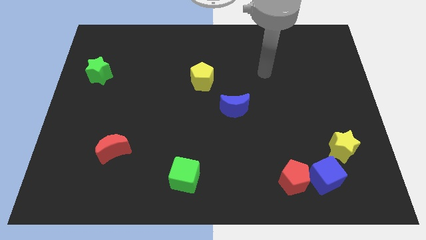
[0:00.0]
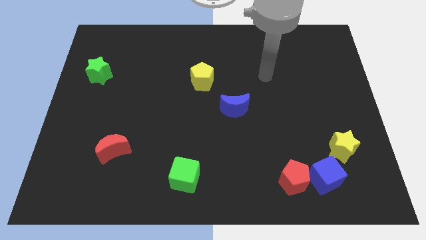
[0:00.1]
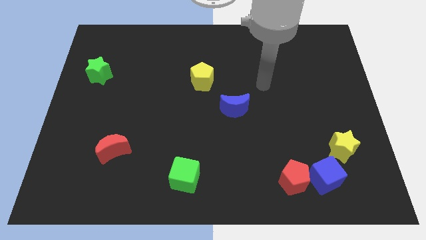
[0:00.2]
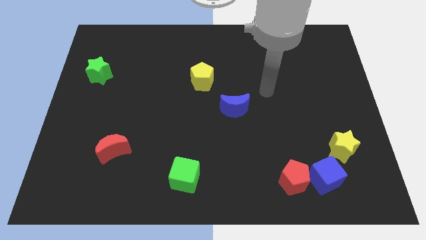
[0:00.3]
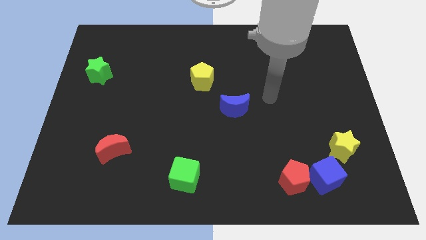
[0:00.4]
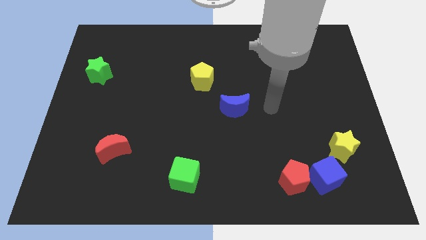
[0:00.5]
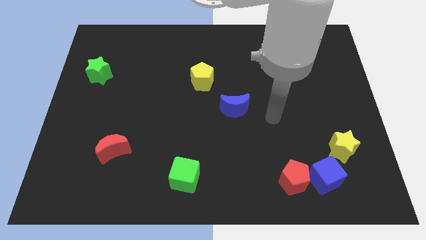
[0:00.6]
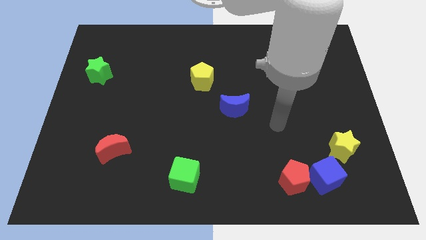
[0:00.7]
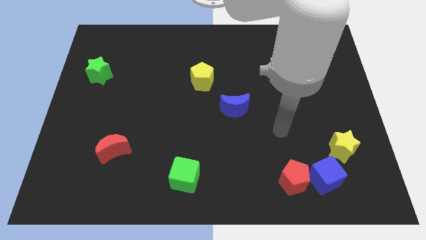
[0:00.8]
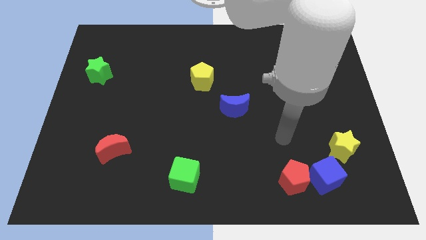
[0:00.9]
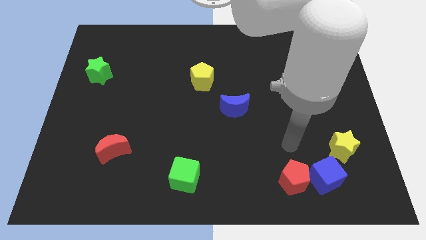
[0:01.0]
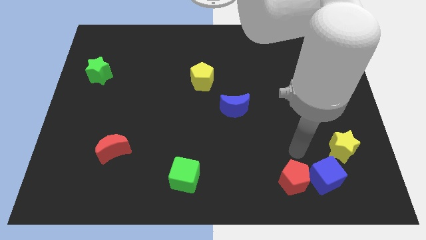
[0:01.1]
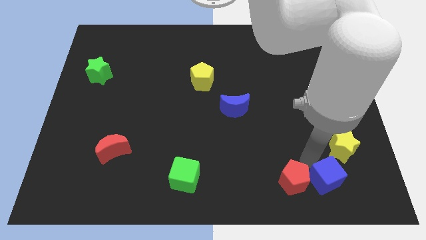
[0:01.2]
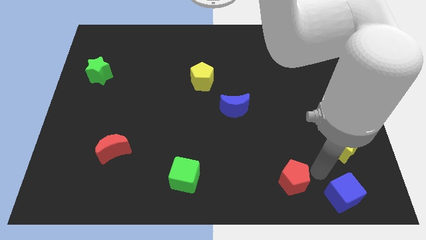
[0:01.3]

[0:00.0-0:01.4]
pull the red pentagon apart from the blue cube

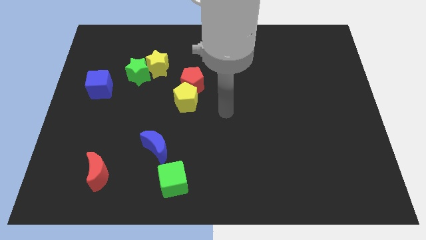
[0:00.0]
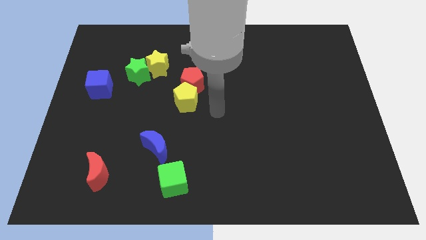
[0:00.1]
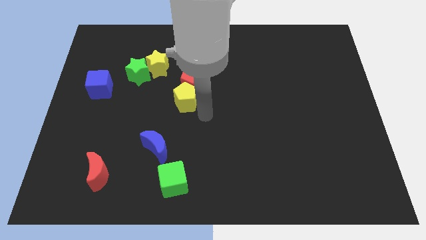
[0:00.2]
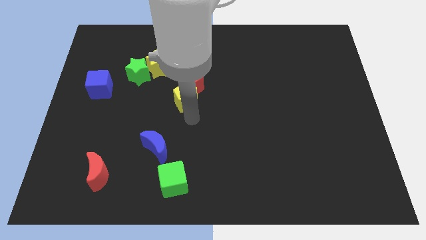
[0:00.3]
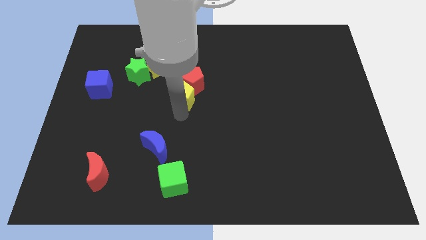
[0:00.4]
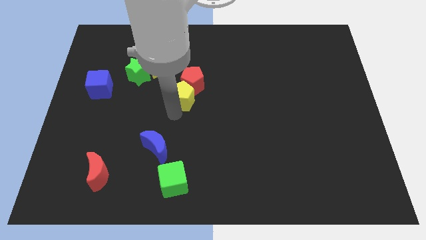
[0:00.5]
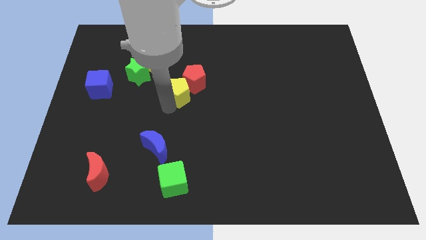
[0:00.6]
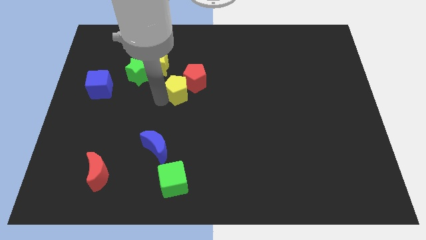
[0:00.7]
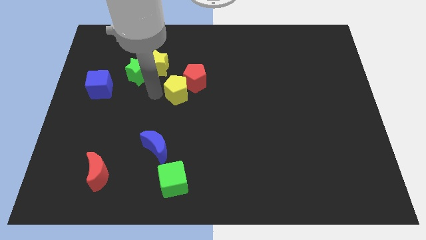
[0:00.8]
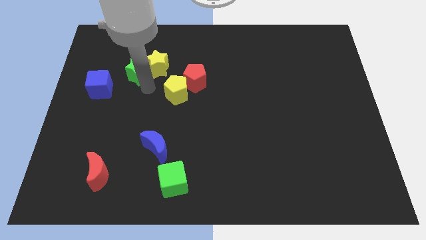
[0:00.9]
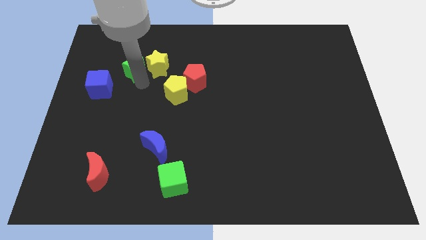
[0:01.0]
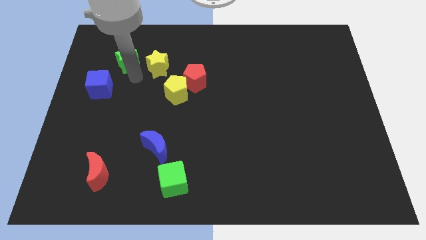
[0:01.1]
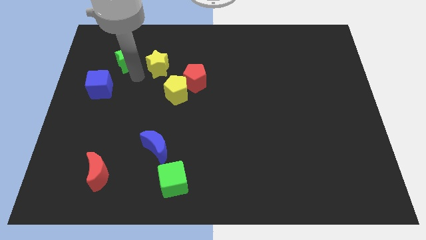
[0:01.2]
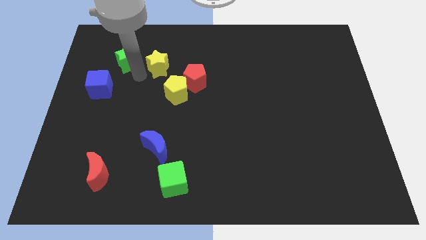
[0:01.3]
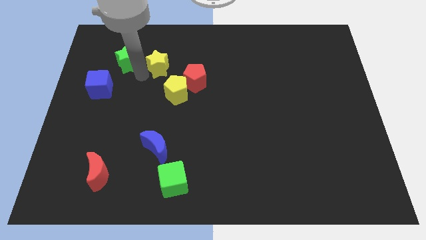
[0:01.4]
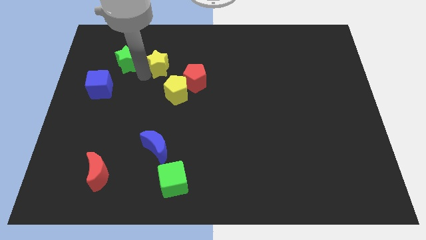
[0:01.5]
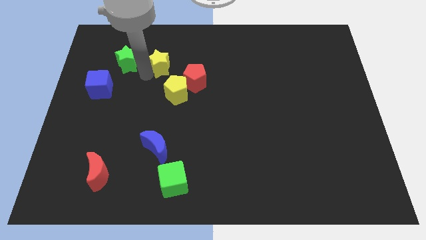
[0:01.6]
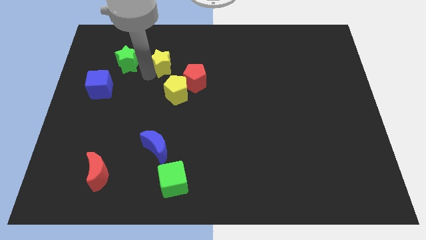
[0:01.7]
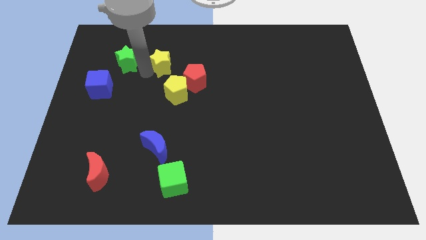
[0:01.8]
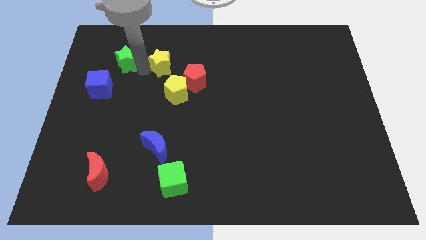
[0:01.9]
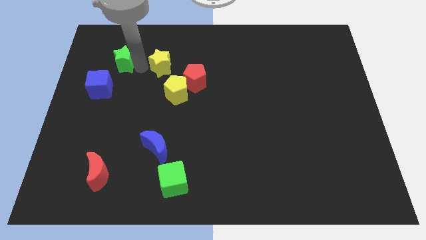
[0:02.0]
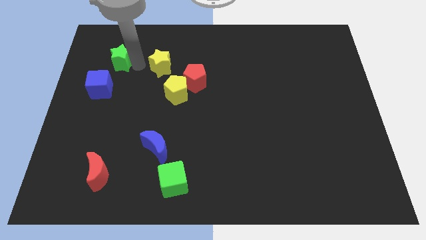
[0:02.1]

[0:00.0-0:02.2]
separate the yellow star from the green star

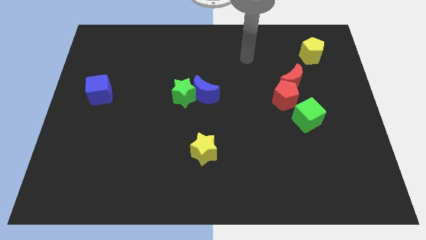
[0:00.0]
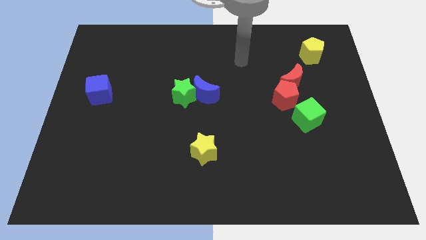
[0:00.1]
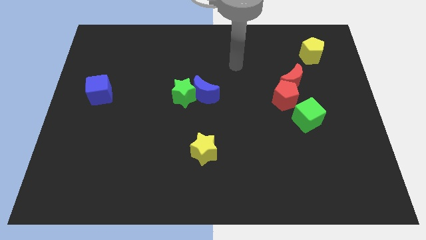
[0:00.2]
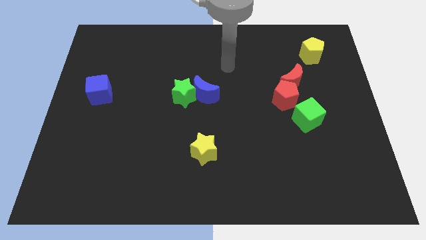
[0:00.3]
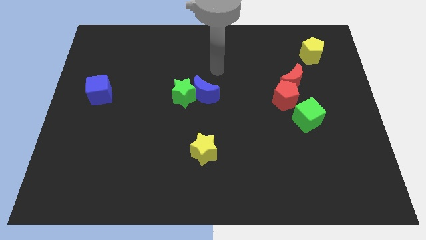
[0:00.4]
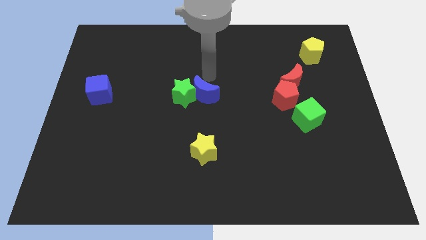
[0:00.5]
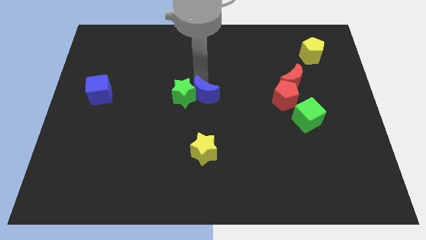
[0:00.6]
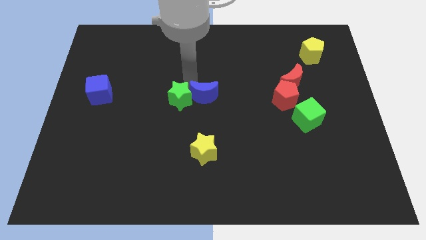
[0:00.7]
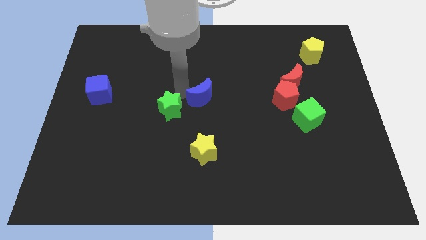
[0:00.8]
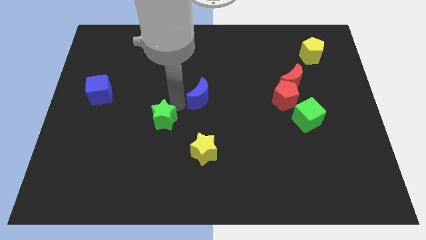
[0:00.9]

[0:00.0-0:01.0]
pull the blue moon apart from the green star

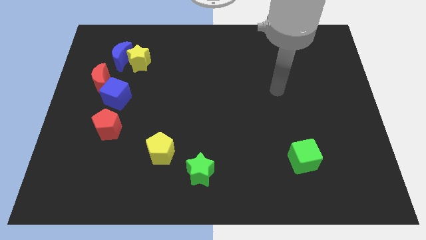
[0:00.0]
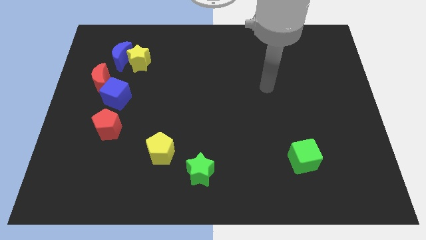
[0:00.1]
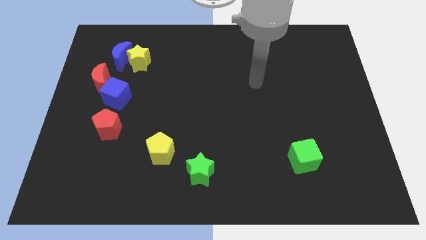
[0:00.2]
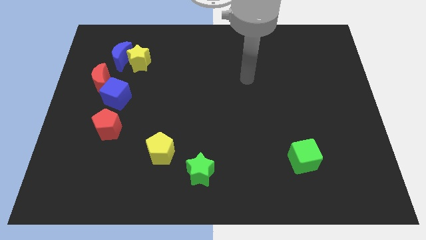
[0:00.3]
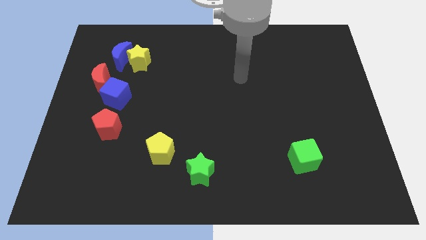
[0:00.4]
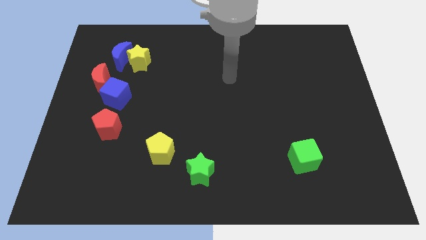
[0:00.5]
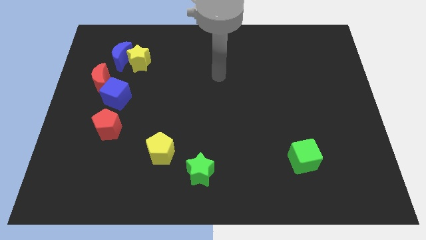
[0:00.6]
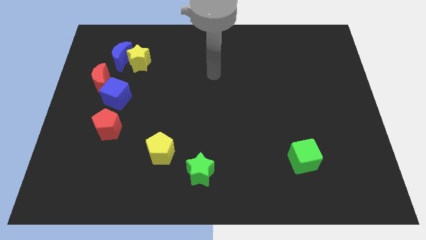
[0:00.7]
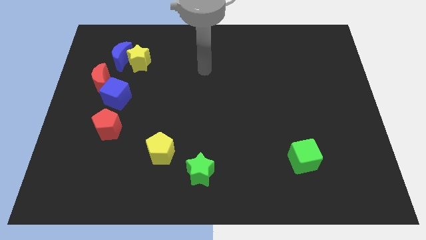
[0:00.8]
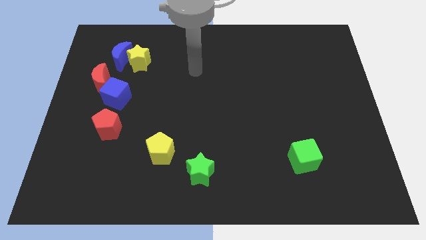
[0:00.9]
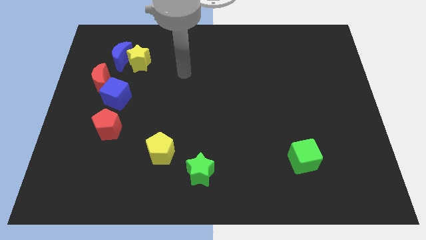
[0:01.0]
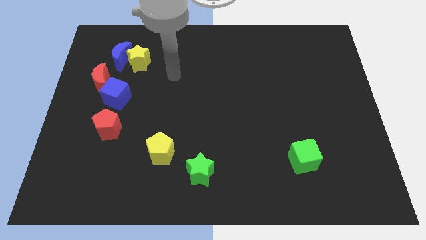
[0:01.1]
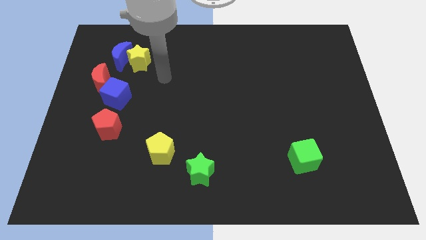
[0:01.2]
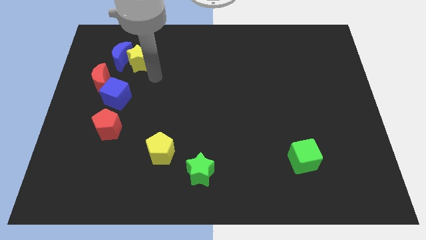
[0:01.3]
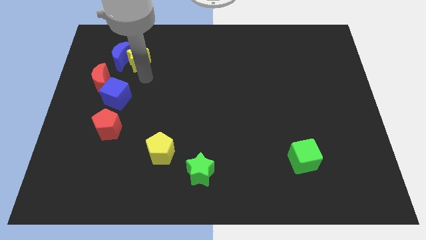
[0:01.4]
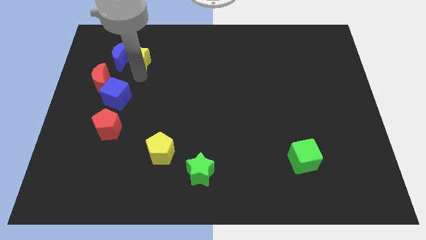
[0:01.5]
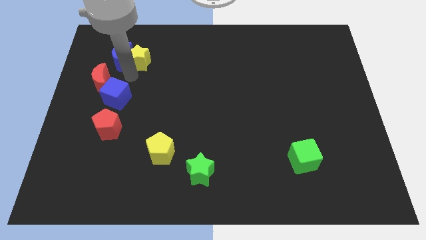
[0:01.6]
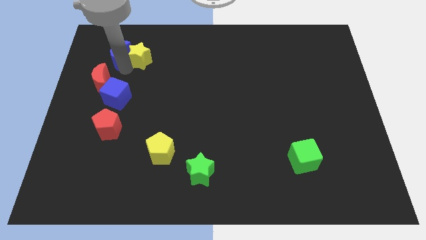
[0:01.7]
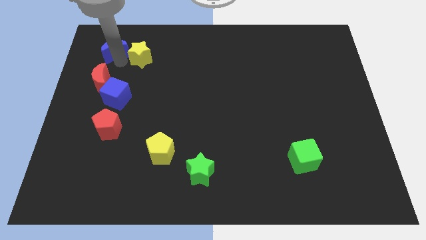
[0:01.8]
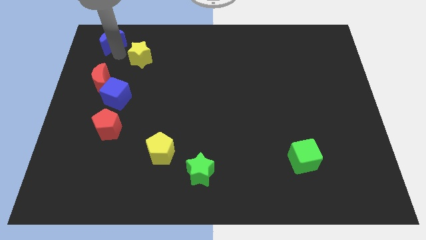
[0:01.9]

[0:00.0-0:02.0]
separate the yellow star from the blue moon

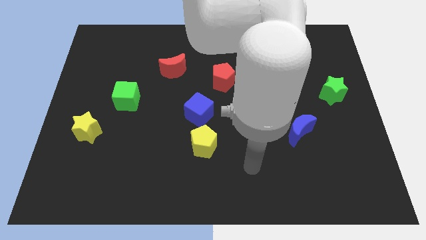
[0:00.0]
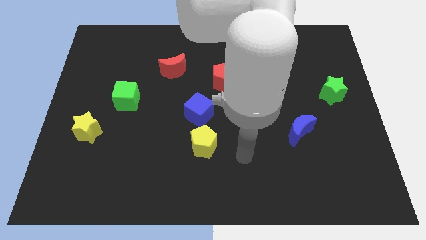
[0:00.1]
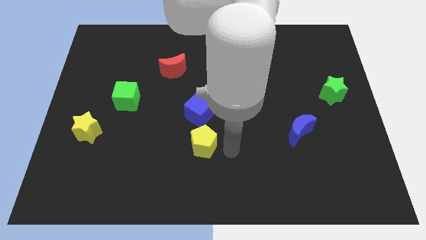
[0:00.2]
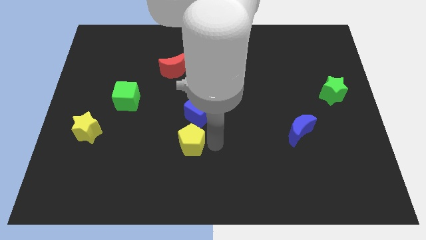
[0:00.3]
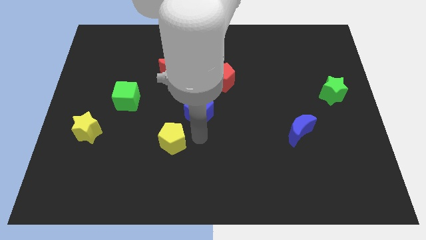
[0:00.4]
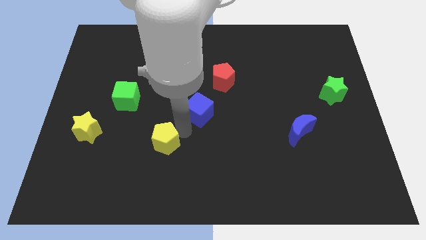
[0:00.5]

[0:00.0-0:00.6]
pull the blue cube apart from the yellow pentagon

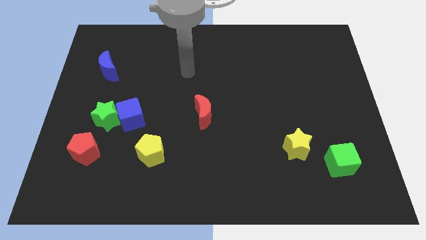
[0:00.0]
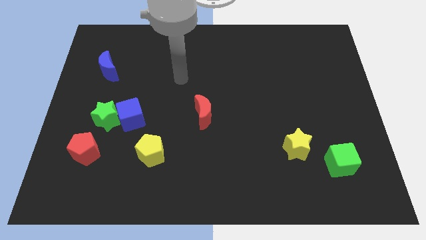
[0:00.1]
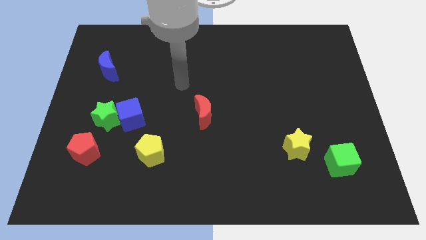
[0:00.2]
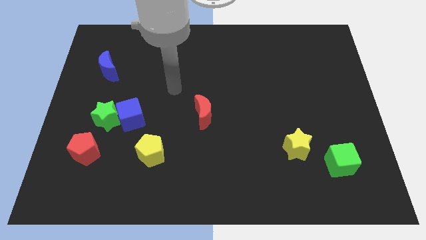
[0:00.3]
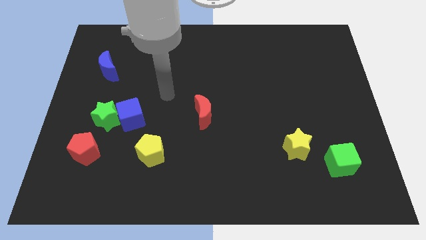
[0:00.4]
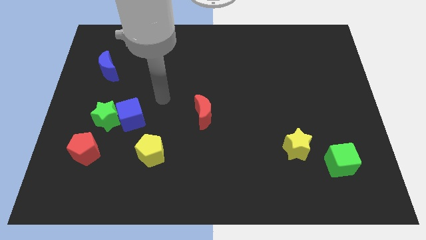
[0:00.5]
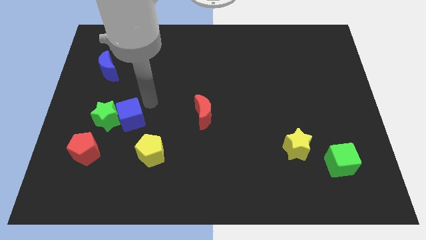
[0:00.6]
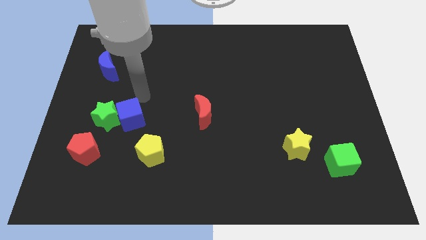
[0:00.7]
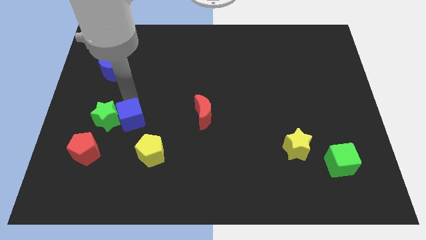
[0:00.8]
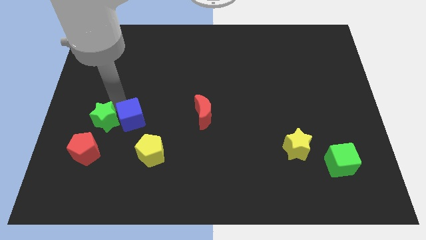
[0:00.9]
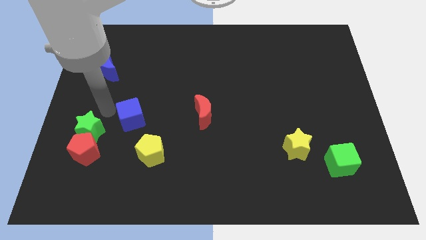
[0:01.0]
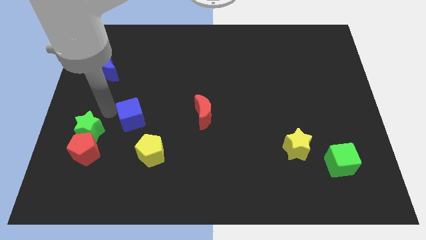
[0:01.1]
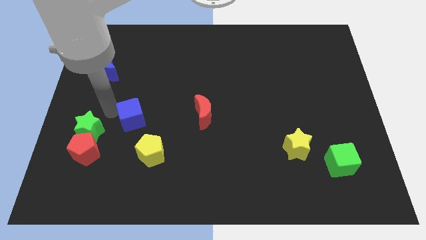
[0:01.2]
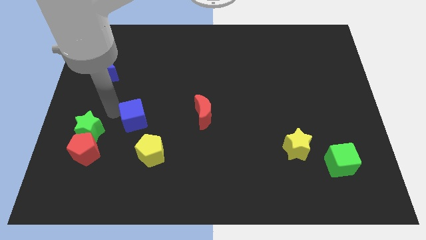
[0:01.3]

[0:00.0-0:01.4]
separate the blue cube from the green star

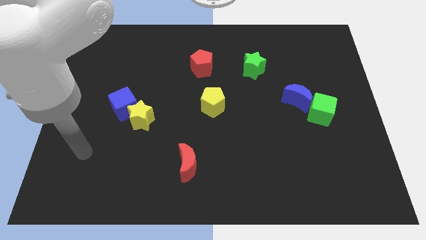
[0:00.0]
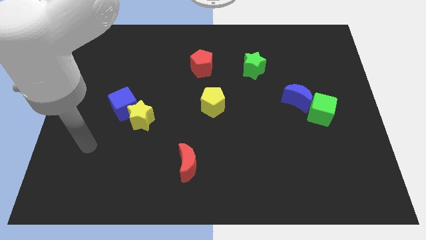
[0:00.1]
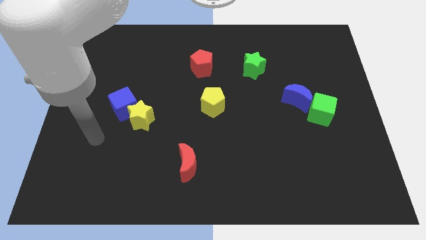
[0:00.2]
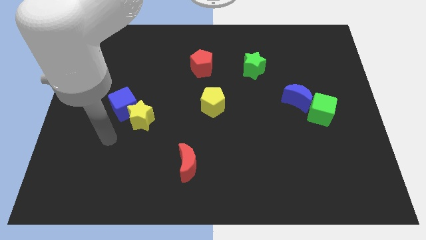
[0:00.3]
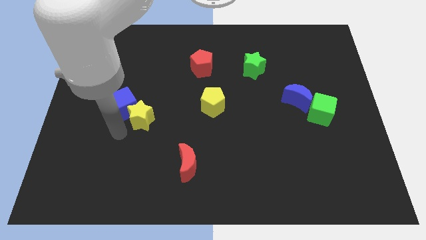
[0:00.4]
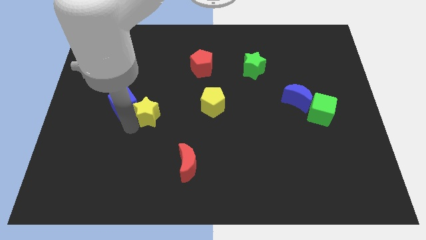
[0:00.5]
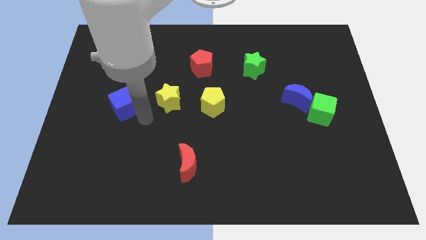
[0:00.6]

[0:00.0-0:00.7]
separate the blue cube from the yellow star

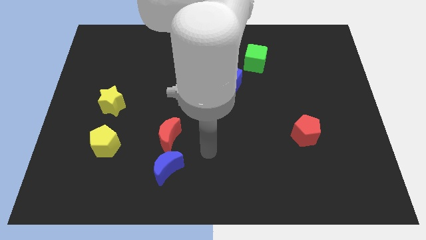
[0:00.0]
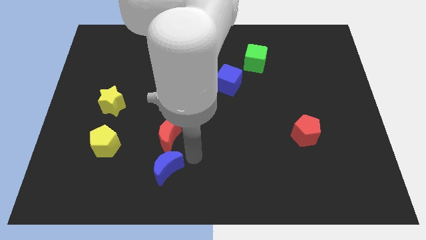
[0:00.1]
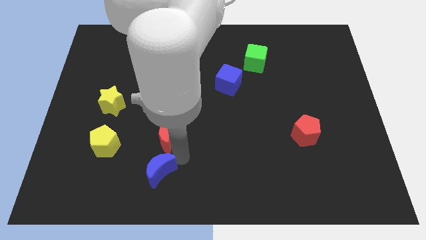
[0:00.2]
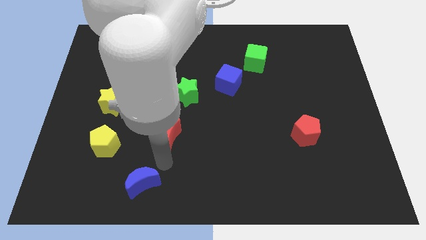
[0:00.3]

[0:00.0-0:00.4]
move the red moon away from the blue moon
